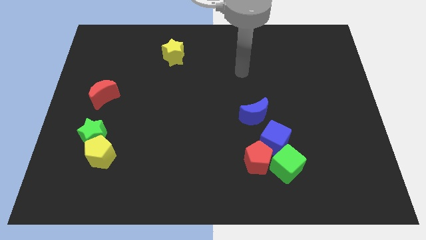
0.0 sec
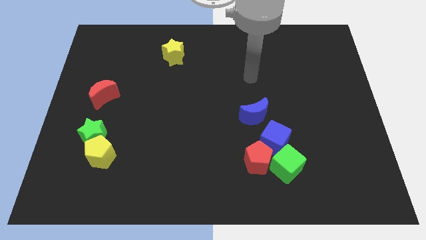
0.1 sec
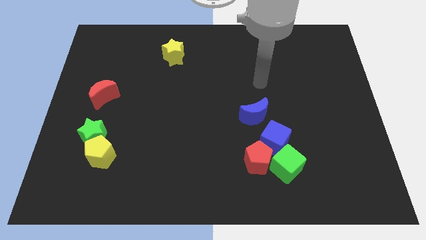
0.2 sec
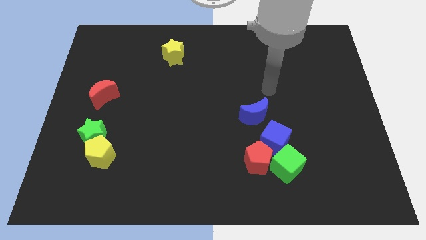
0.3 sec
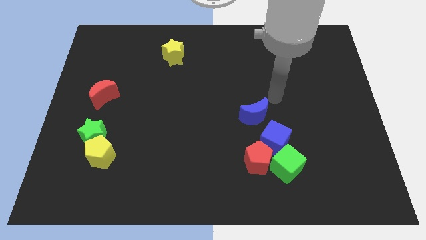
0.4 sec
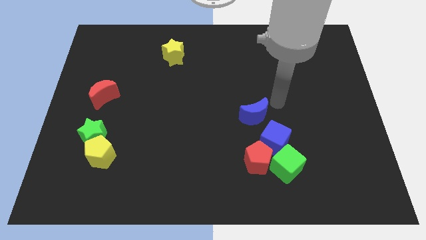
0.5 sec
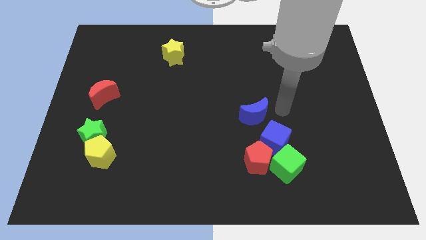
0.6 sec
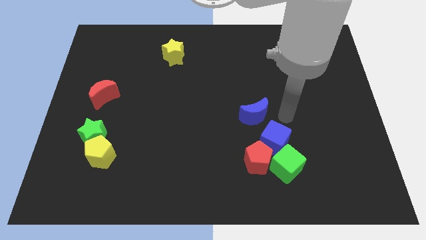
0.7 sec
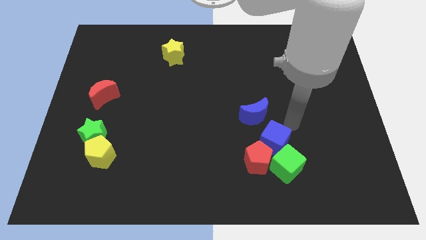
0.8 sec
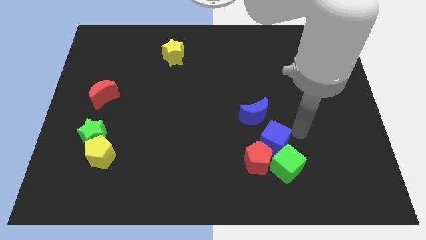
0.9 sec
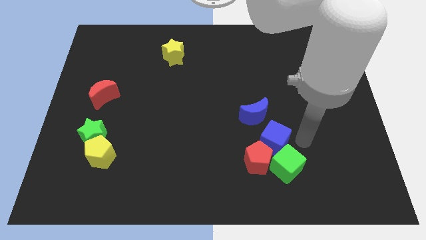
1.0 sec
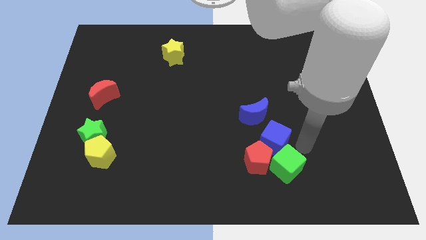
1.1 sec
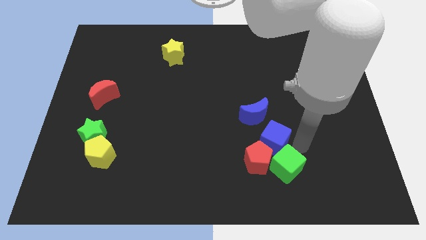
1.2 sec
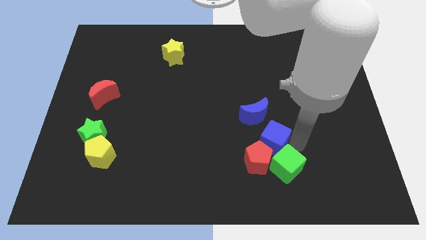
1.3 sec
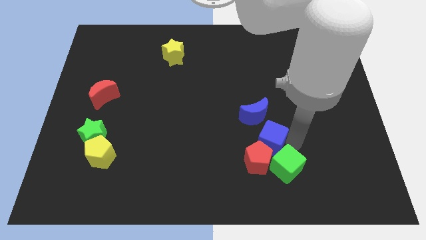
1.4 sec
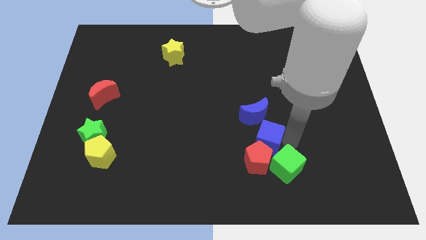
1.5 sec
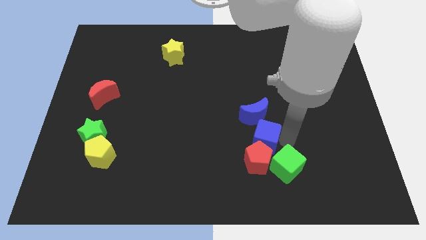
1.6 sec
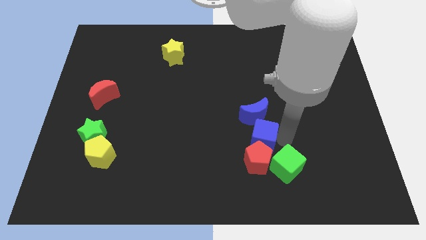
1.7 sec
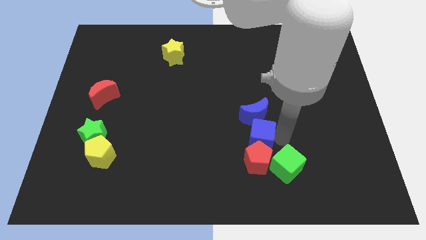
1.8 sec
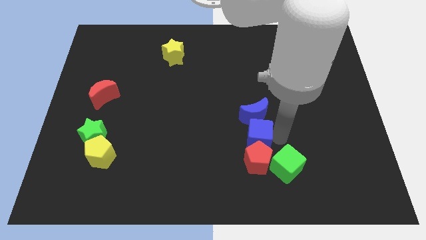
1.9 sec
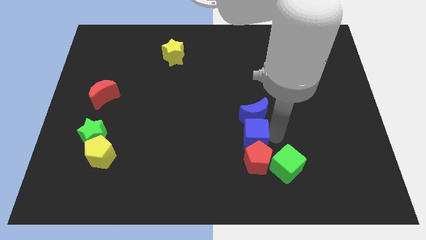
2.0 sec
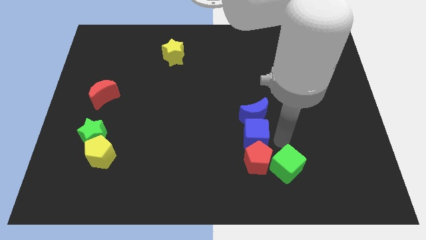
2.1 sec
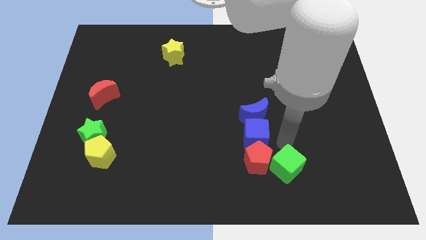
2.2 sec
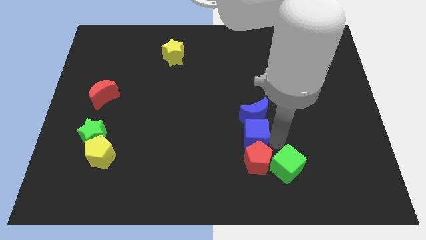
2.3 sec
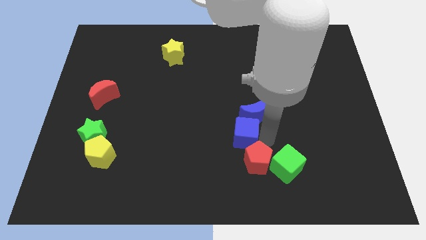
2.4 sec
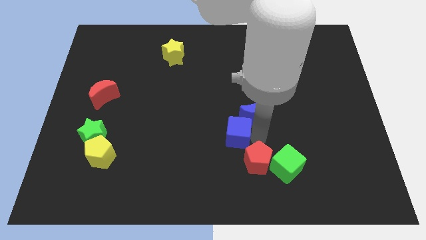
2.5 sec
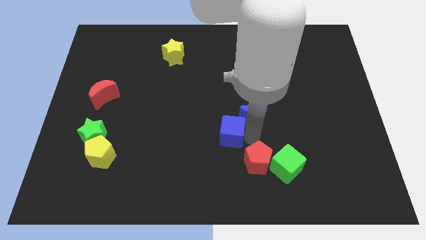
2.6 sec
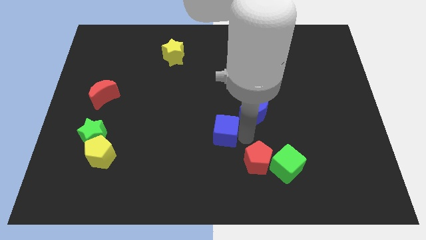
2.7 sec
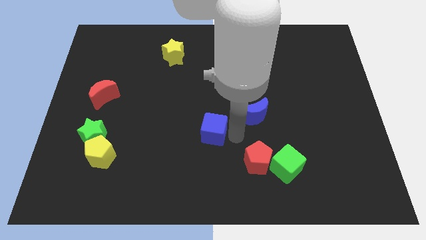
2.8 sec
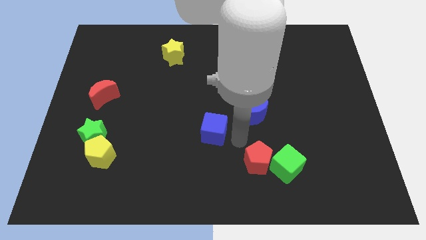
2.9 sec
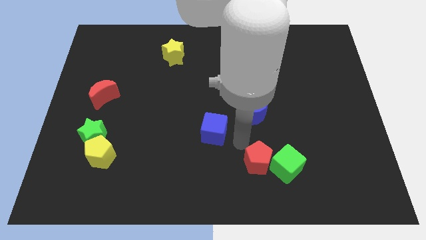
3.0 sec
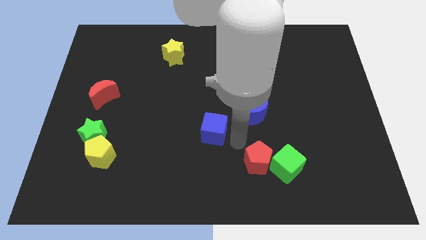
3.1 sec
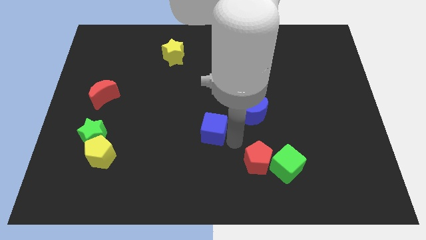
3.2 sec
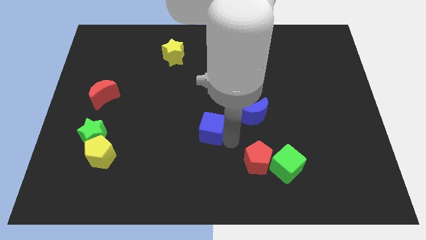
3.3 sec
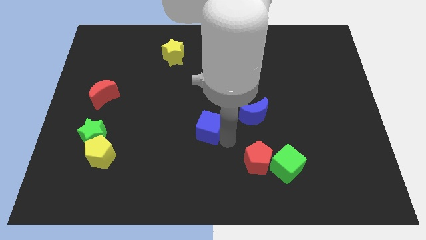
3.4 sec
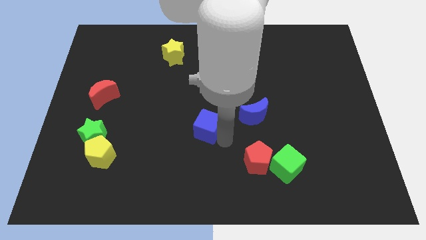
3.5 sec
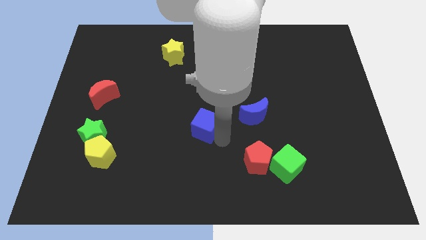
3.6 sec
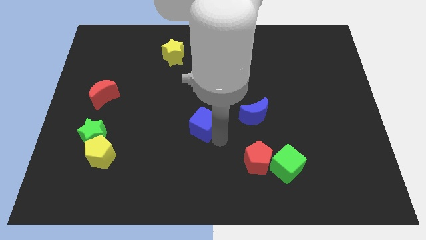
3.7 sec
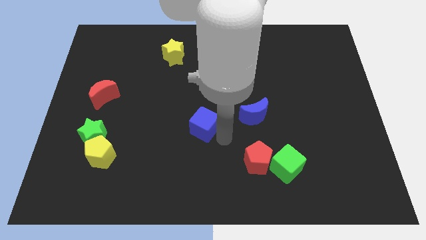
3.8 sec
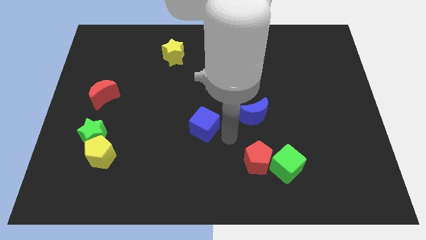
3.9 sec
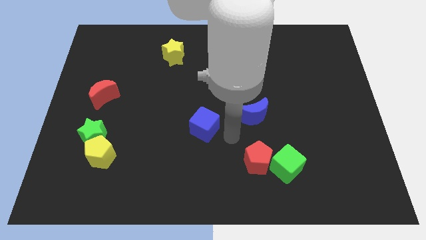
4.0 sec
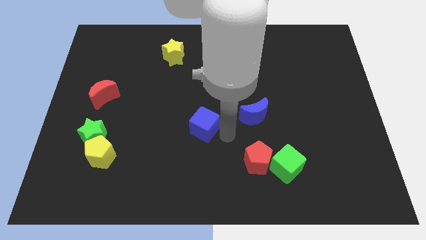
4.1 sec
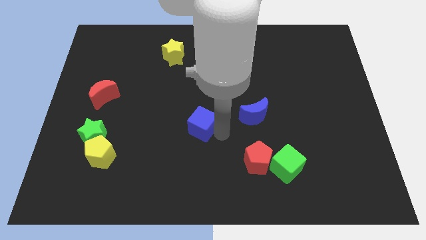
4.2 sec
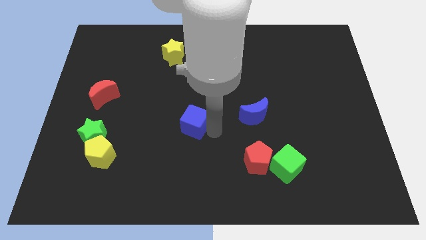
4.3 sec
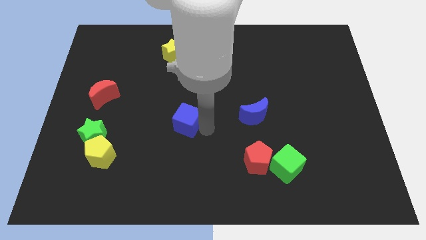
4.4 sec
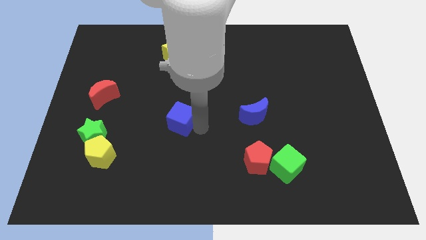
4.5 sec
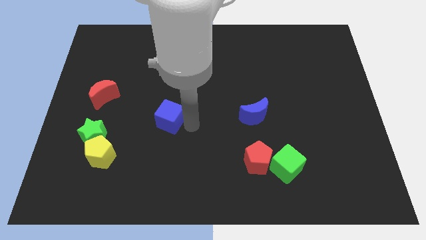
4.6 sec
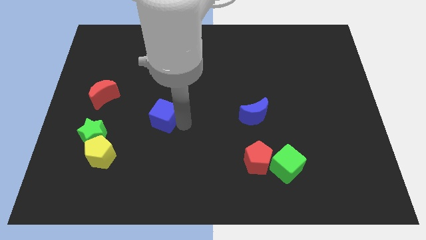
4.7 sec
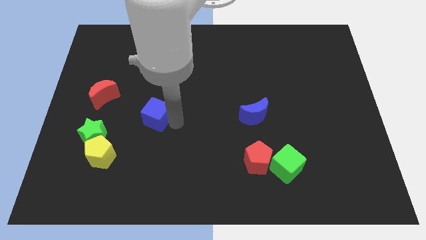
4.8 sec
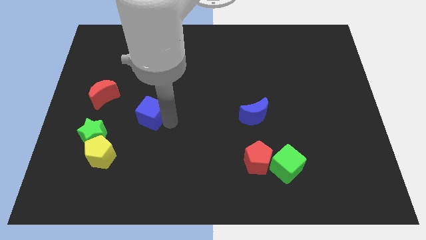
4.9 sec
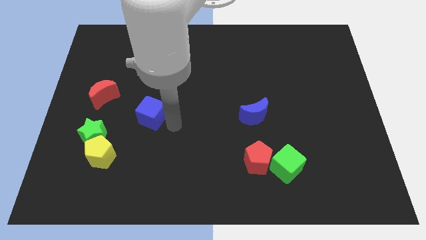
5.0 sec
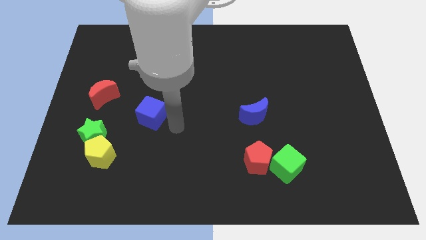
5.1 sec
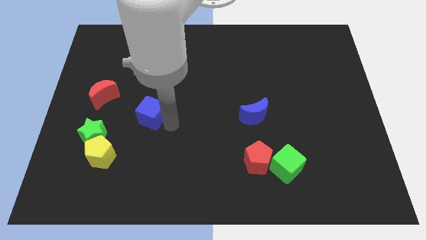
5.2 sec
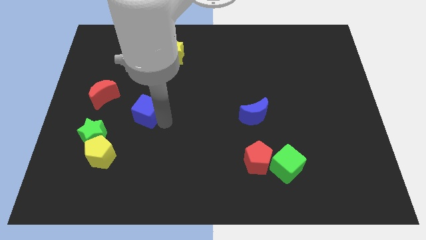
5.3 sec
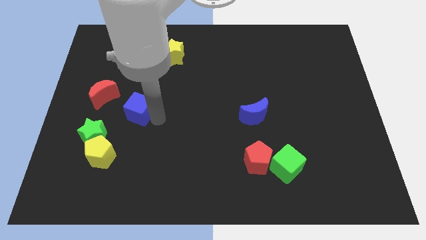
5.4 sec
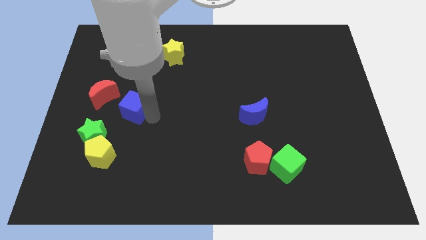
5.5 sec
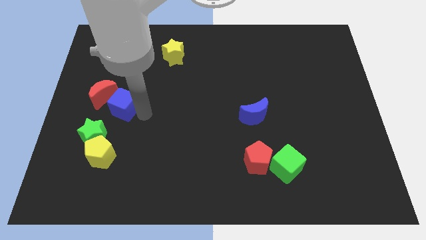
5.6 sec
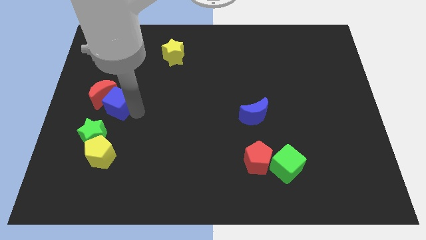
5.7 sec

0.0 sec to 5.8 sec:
push the blue cube towards the red moon

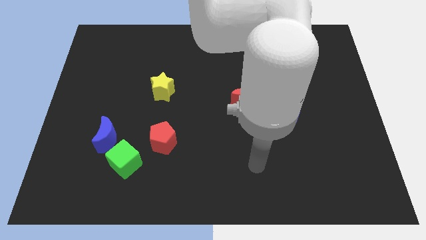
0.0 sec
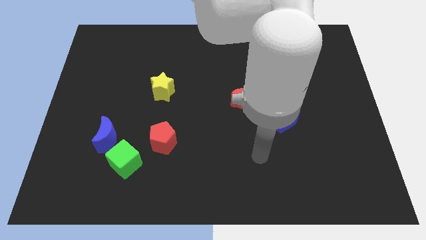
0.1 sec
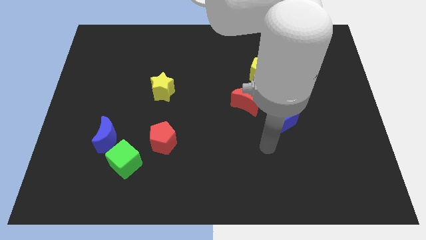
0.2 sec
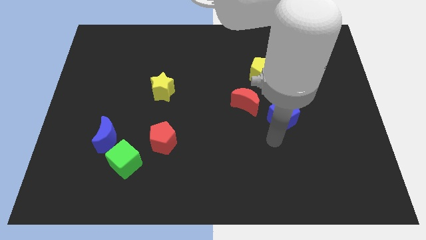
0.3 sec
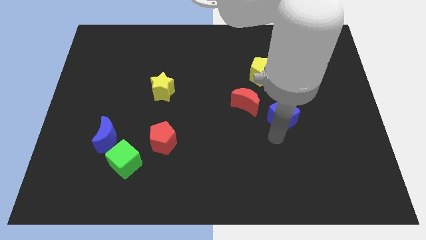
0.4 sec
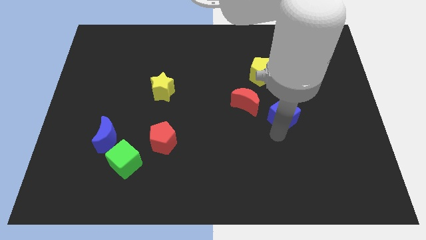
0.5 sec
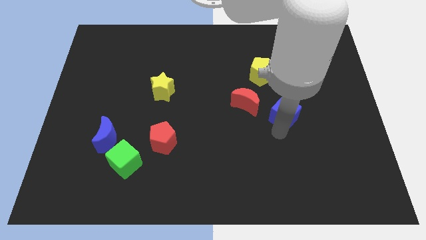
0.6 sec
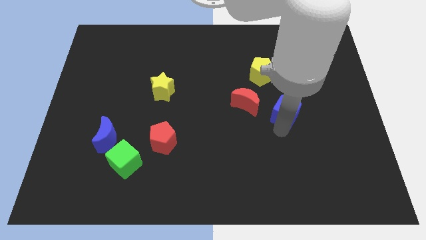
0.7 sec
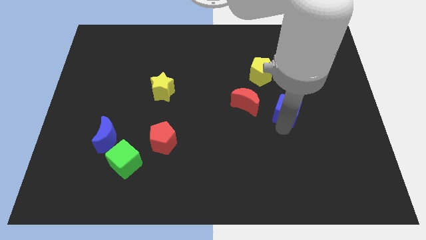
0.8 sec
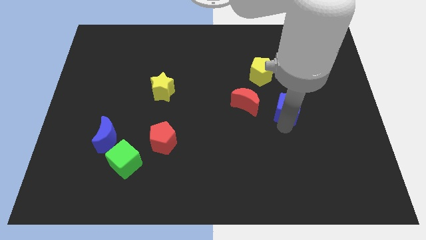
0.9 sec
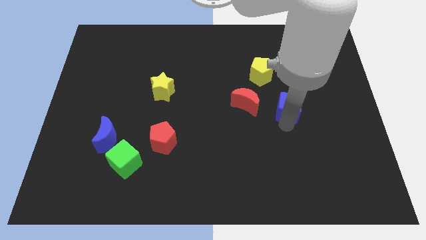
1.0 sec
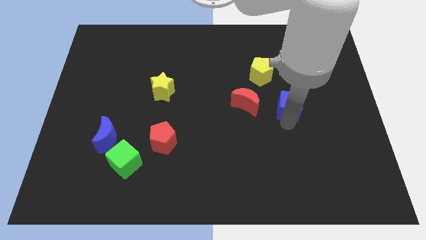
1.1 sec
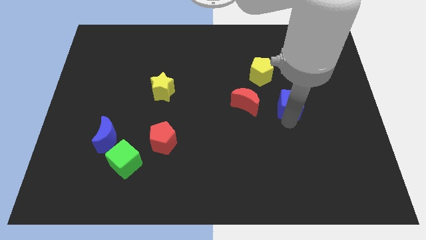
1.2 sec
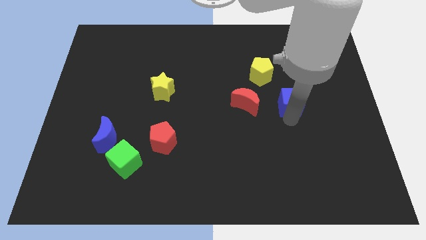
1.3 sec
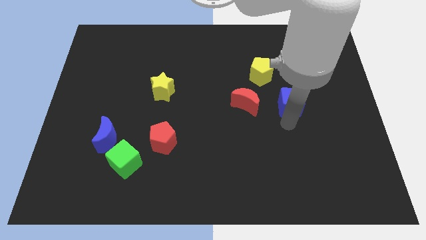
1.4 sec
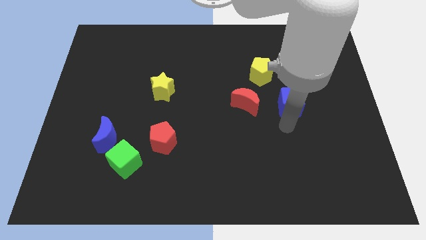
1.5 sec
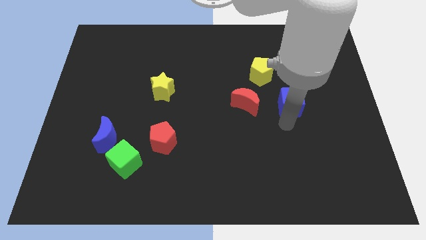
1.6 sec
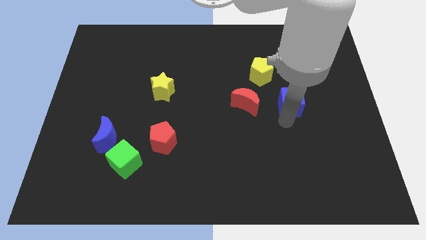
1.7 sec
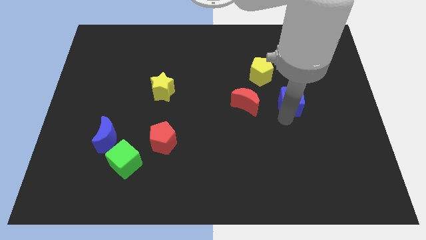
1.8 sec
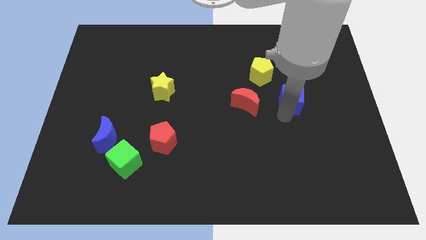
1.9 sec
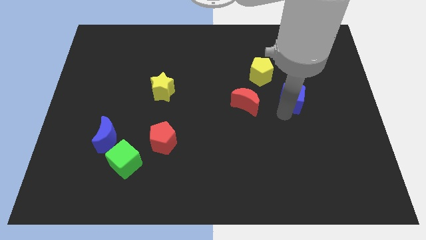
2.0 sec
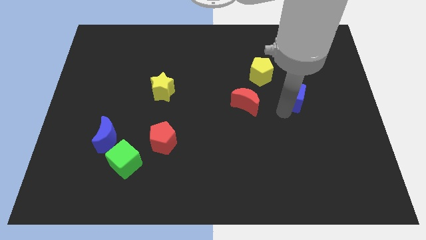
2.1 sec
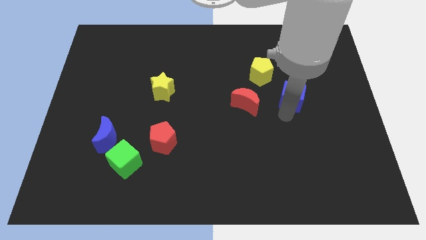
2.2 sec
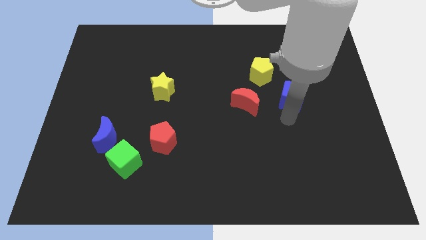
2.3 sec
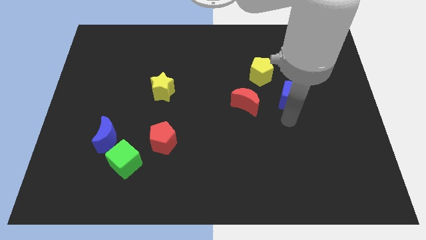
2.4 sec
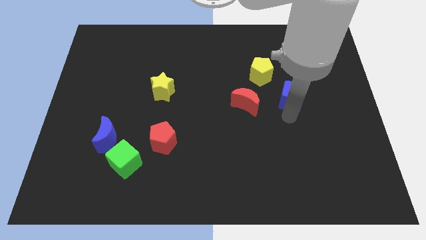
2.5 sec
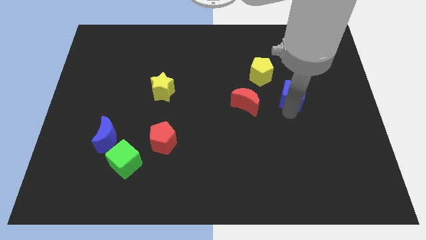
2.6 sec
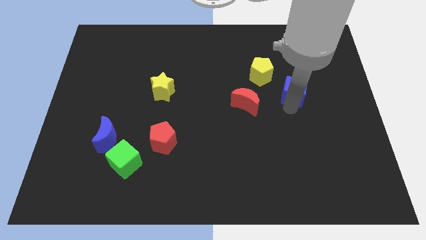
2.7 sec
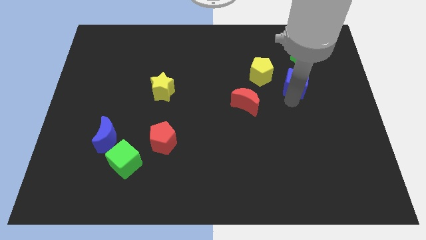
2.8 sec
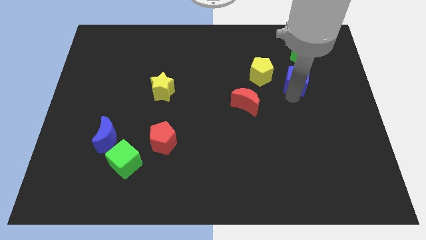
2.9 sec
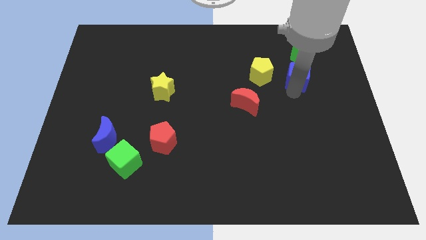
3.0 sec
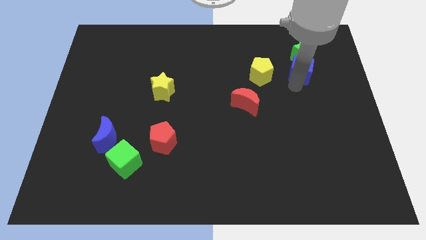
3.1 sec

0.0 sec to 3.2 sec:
put the blue cube next to the green star
